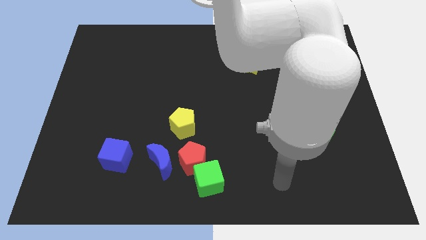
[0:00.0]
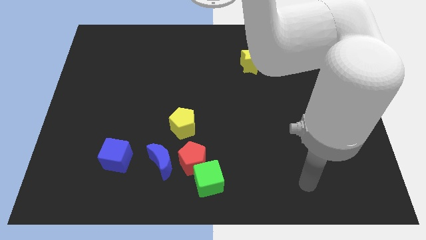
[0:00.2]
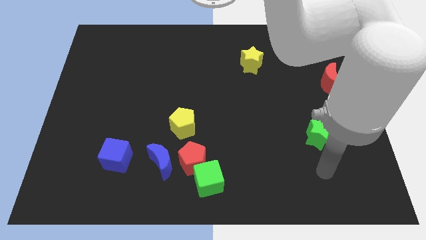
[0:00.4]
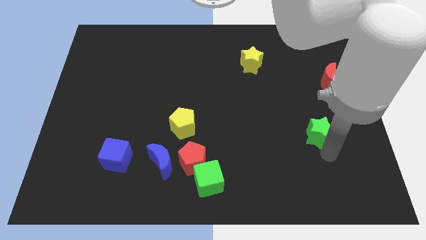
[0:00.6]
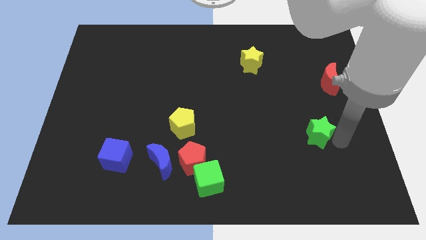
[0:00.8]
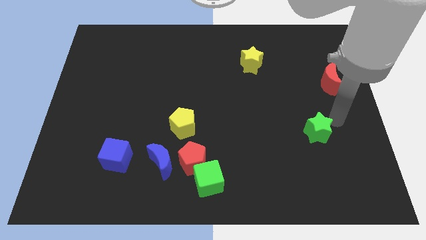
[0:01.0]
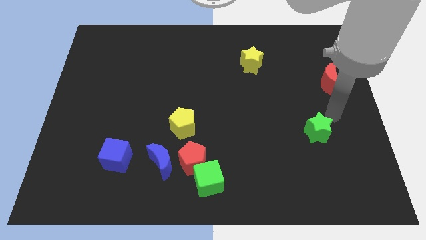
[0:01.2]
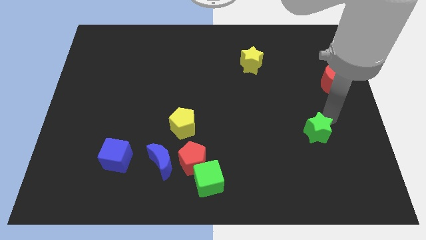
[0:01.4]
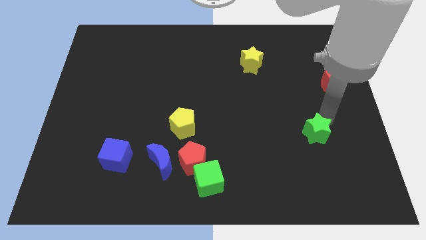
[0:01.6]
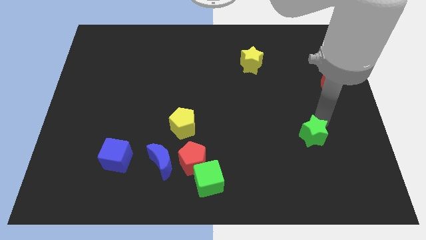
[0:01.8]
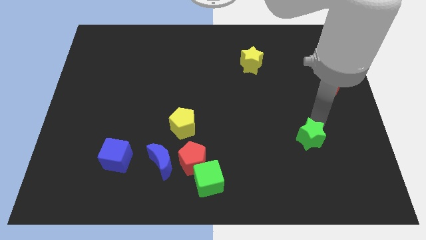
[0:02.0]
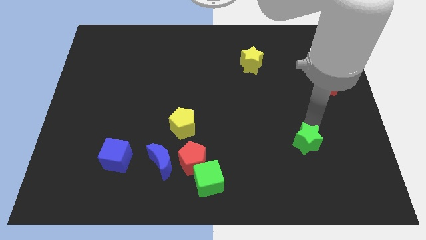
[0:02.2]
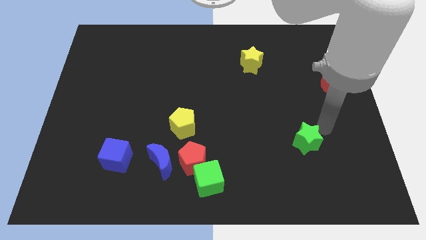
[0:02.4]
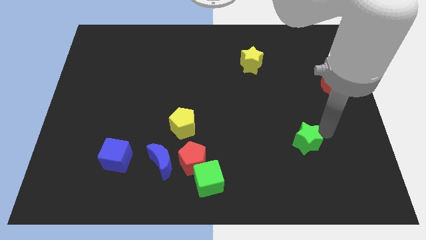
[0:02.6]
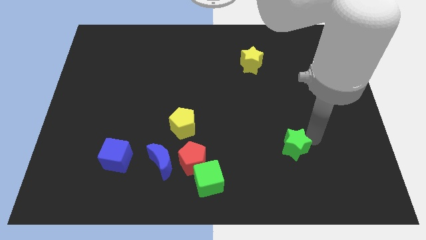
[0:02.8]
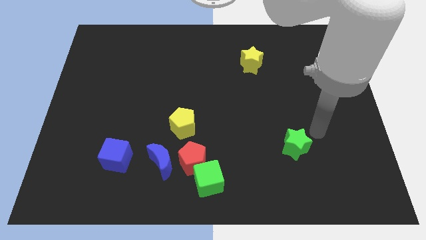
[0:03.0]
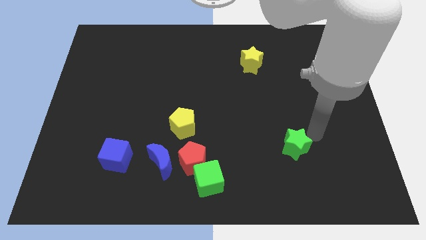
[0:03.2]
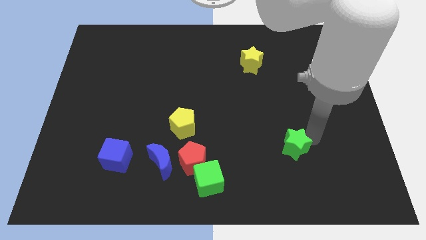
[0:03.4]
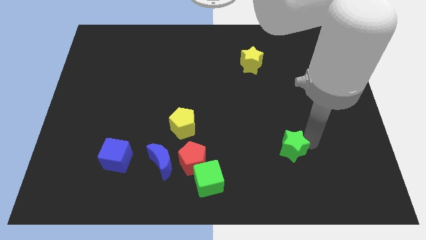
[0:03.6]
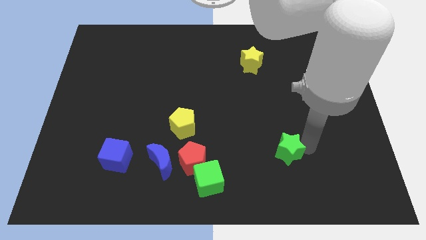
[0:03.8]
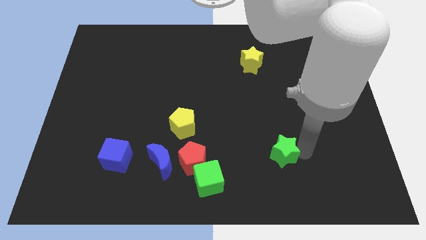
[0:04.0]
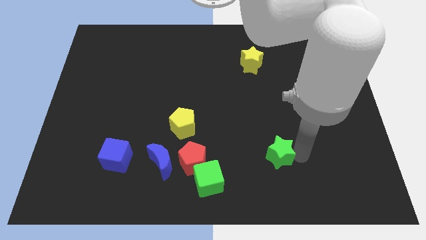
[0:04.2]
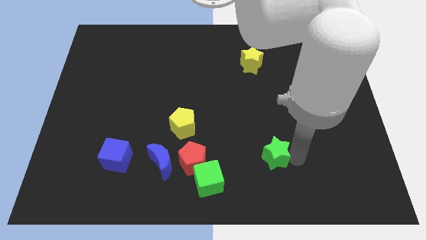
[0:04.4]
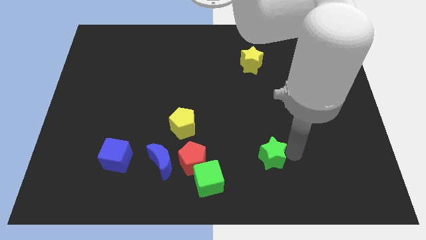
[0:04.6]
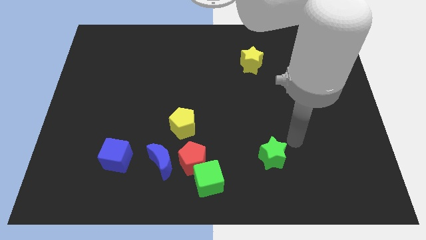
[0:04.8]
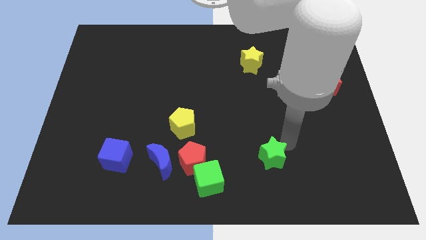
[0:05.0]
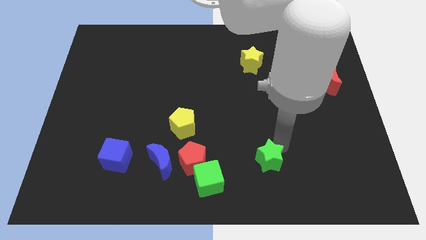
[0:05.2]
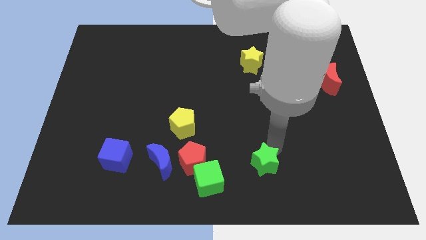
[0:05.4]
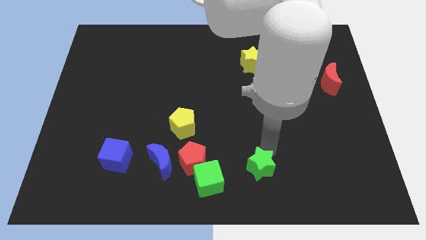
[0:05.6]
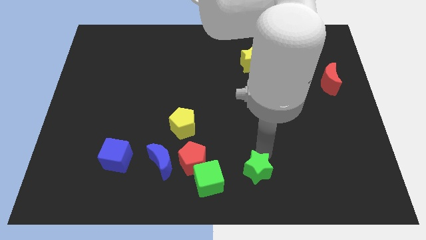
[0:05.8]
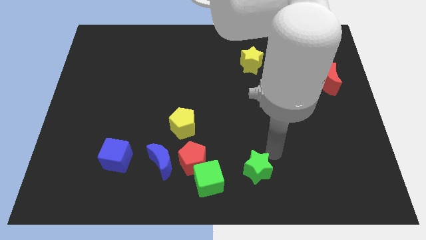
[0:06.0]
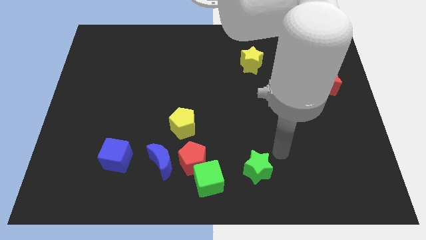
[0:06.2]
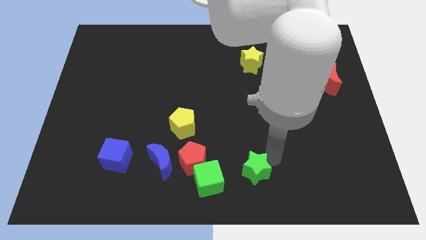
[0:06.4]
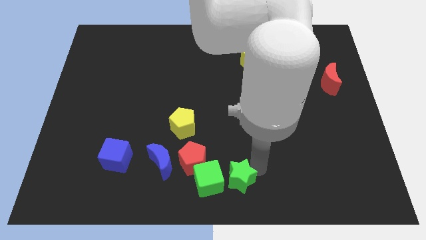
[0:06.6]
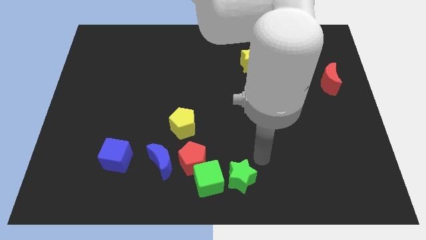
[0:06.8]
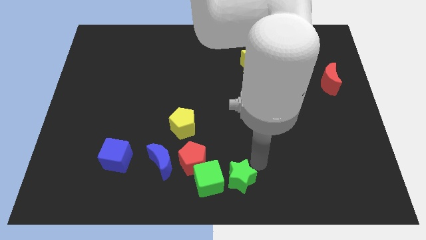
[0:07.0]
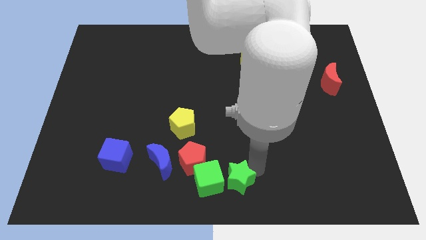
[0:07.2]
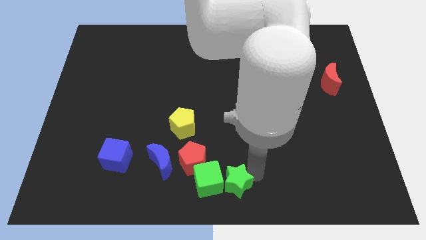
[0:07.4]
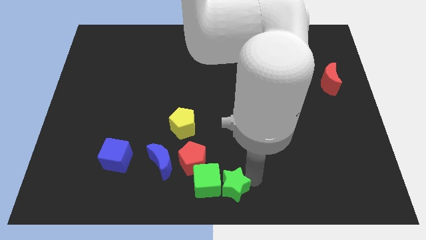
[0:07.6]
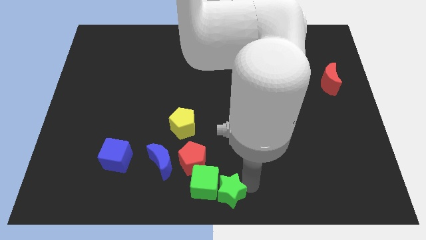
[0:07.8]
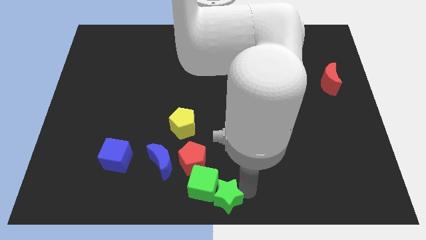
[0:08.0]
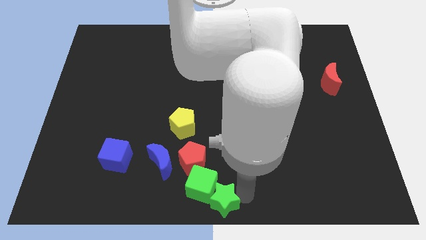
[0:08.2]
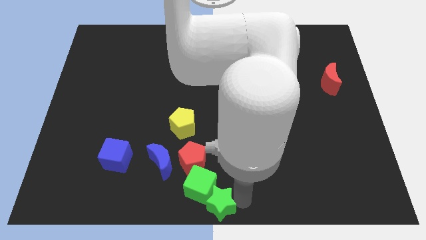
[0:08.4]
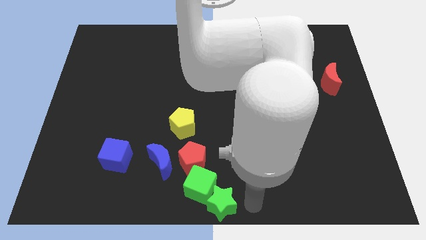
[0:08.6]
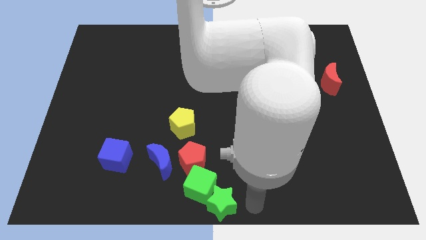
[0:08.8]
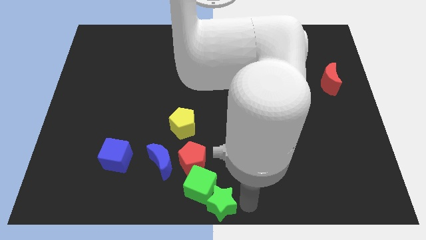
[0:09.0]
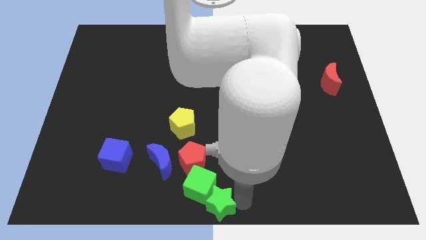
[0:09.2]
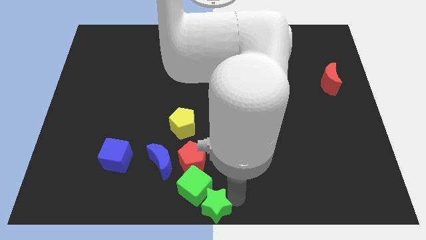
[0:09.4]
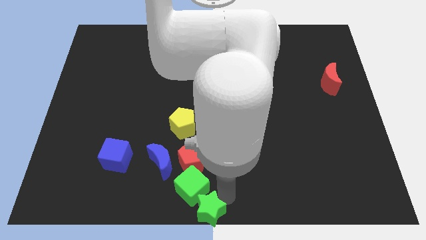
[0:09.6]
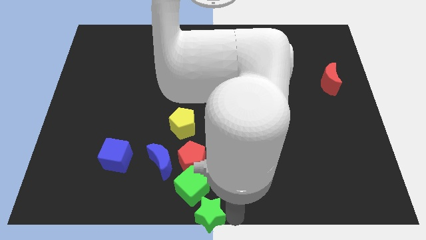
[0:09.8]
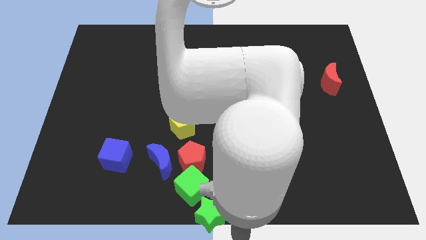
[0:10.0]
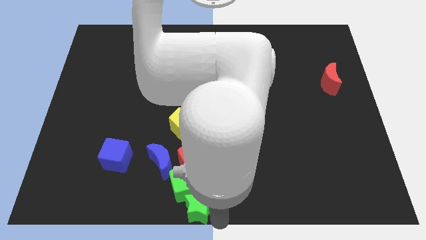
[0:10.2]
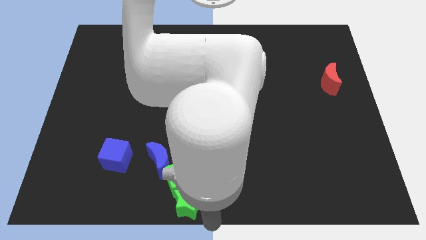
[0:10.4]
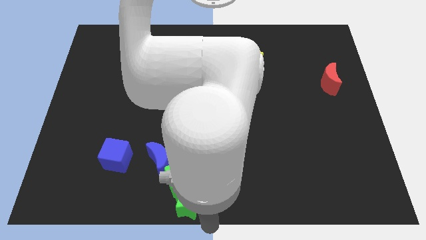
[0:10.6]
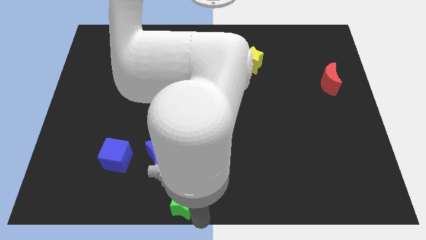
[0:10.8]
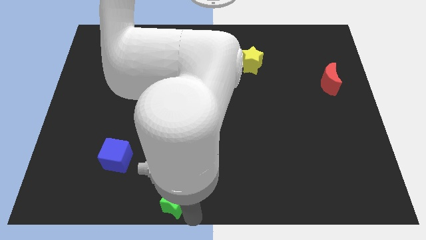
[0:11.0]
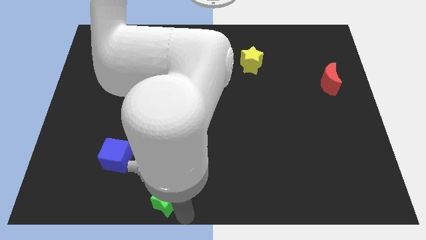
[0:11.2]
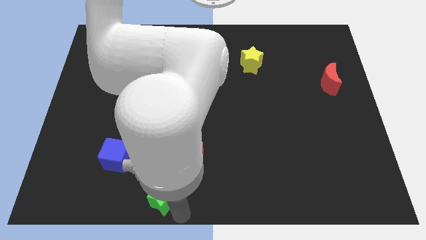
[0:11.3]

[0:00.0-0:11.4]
move the green star to the bottom left of the red pentagon

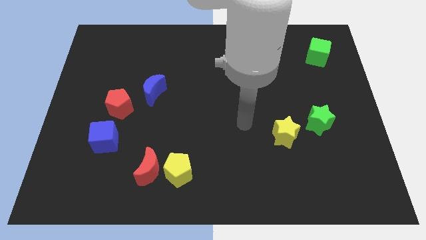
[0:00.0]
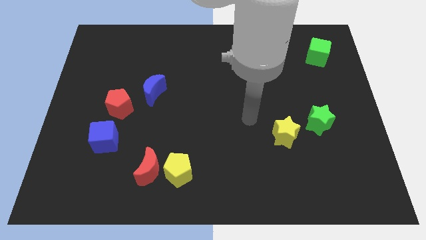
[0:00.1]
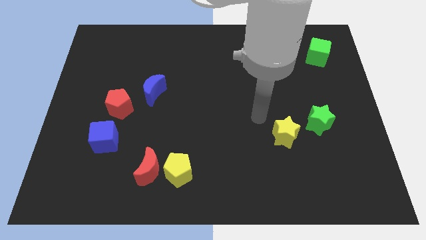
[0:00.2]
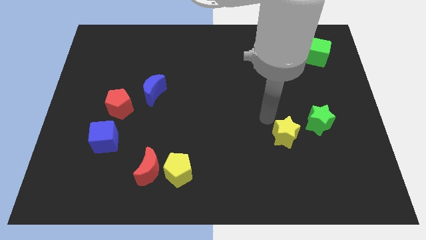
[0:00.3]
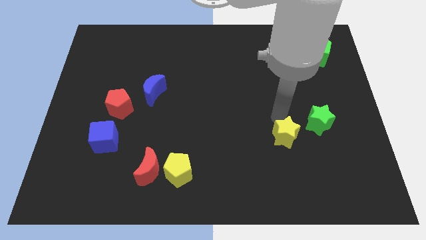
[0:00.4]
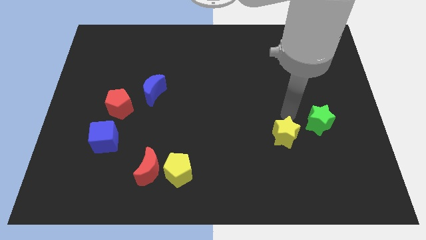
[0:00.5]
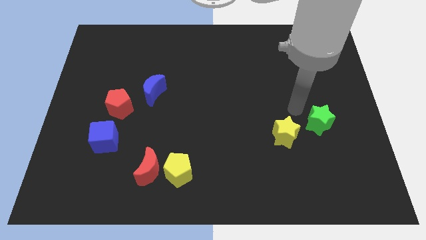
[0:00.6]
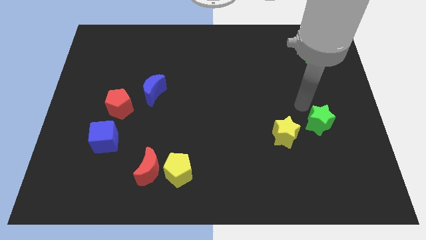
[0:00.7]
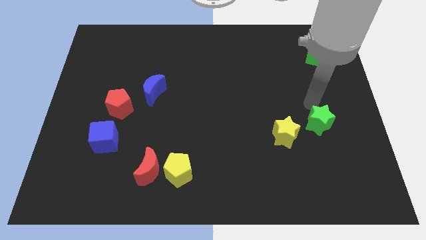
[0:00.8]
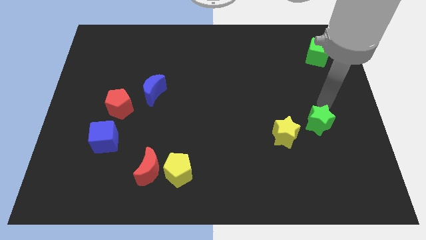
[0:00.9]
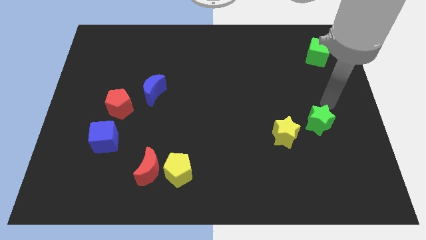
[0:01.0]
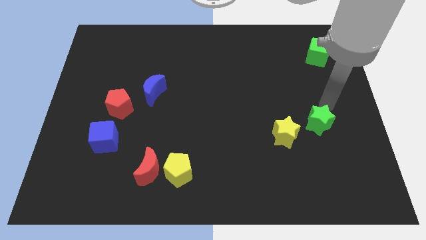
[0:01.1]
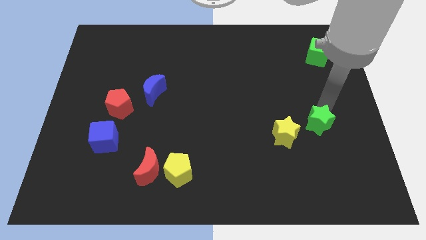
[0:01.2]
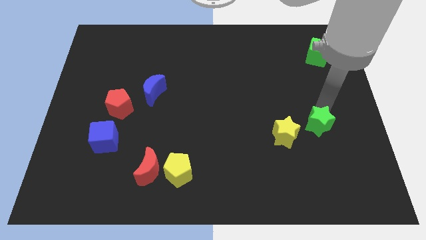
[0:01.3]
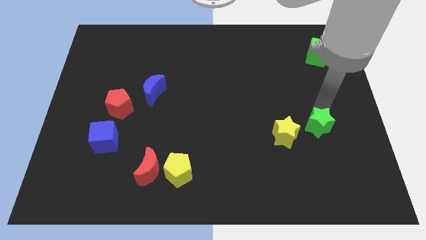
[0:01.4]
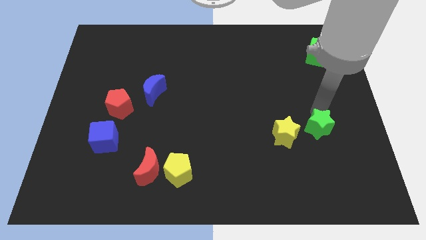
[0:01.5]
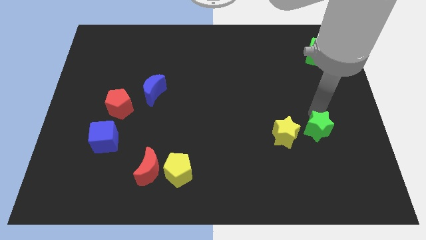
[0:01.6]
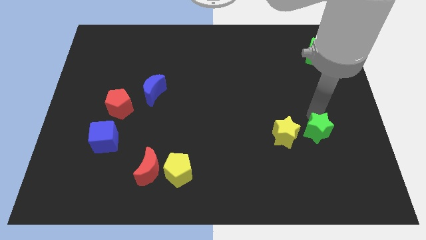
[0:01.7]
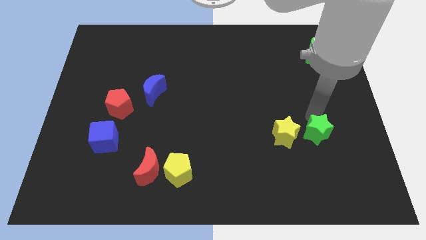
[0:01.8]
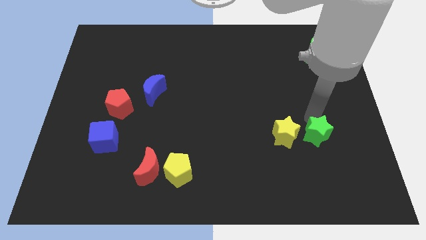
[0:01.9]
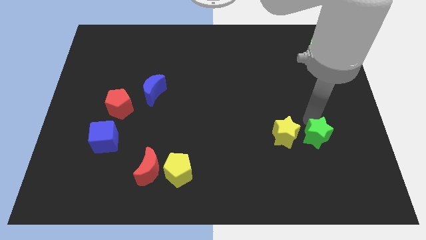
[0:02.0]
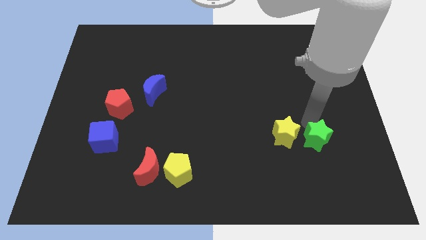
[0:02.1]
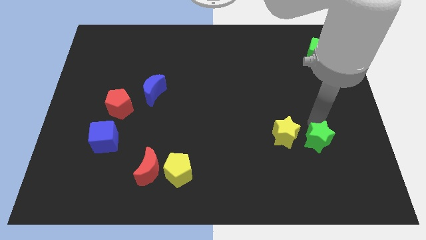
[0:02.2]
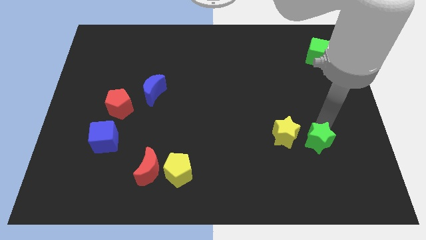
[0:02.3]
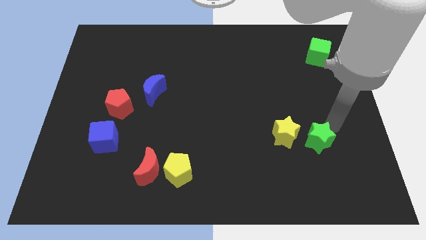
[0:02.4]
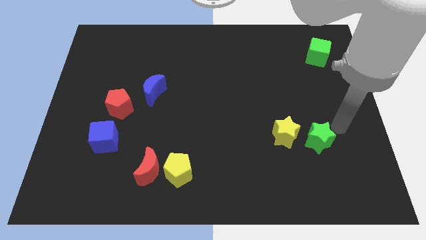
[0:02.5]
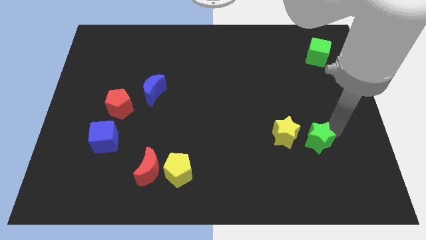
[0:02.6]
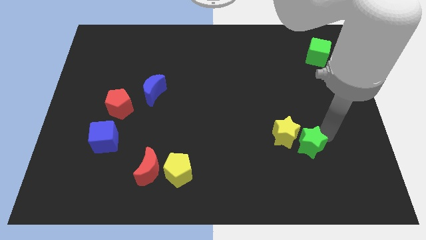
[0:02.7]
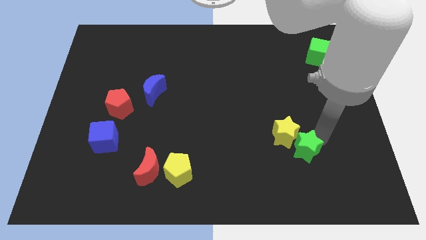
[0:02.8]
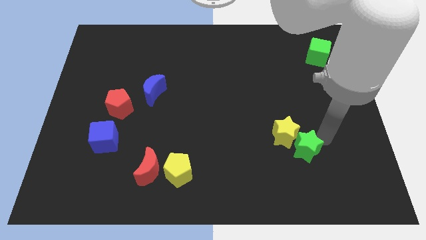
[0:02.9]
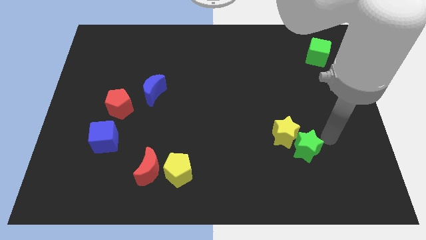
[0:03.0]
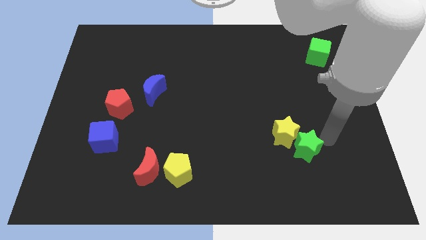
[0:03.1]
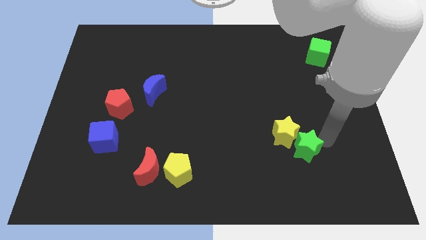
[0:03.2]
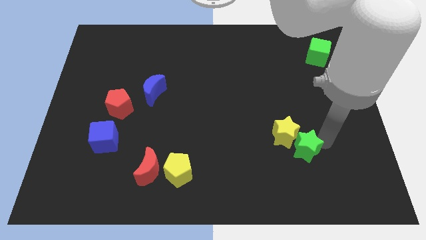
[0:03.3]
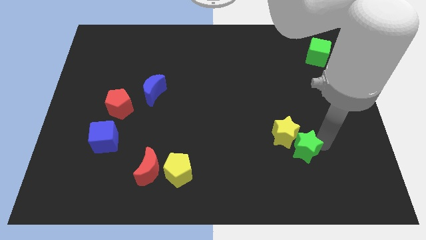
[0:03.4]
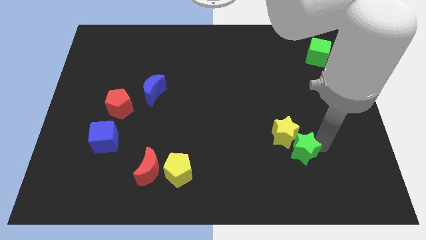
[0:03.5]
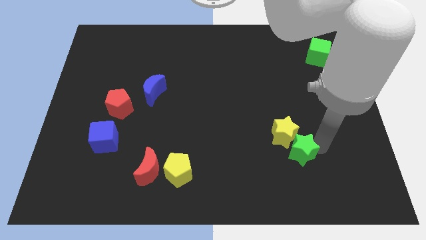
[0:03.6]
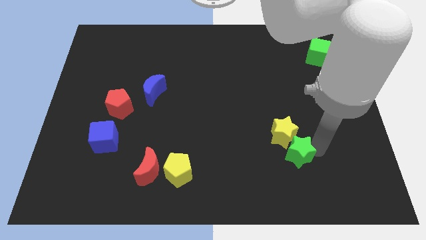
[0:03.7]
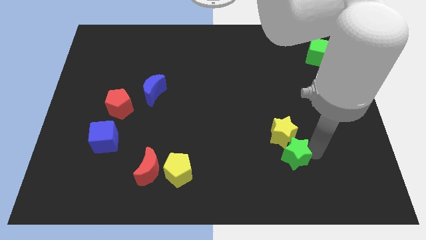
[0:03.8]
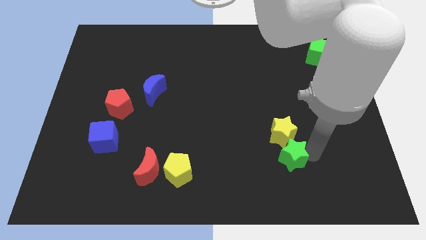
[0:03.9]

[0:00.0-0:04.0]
push the green star to the bottom left of the yellow star
